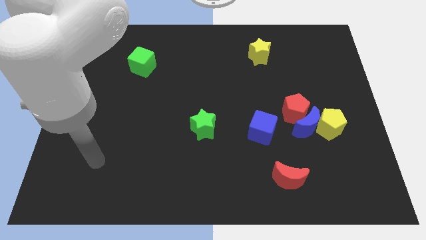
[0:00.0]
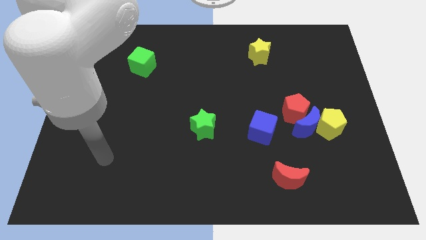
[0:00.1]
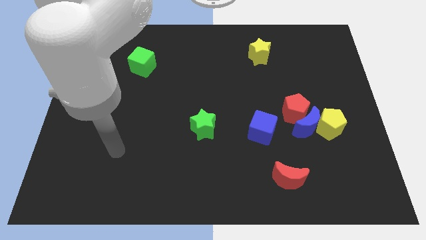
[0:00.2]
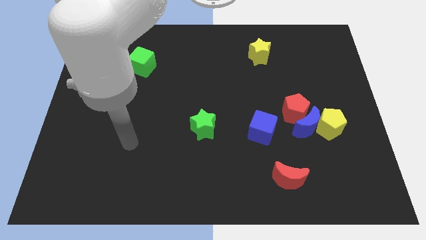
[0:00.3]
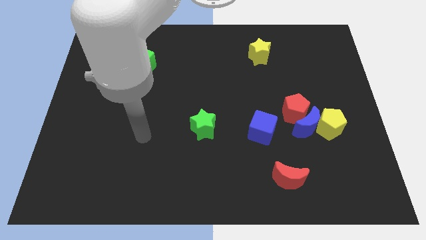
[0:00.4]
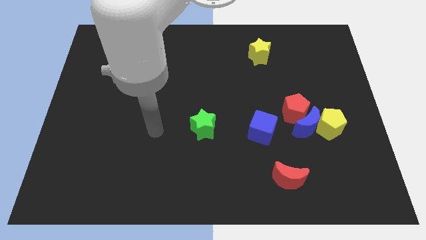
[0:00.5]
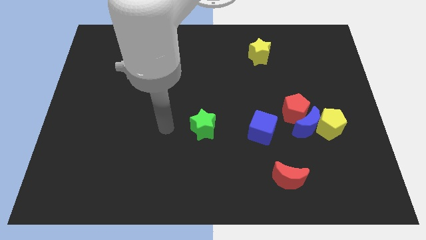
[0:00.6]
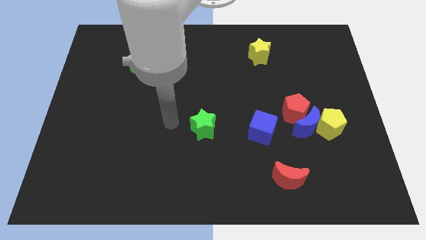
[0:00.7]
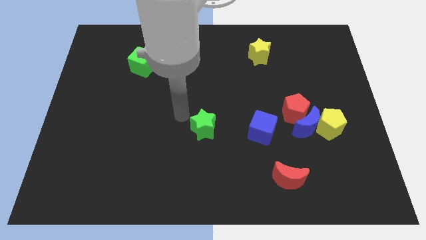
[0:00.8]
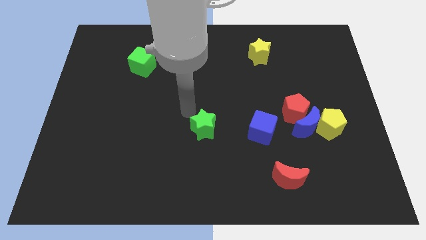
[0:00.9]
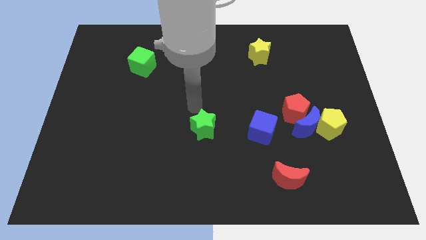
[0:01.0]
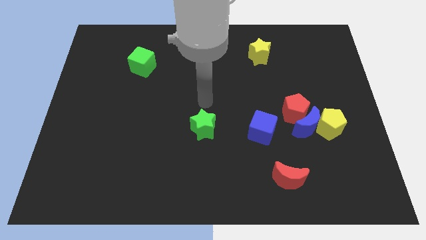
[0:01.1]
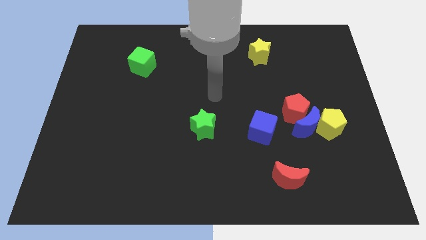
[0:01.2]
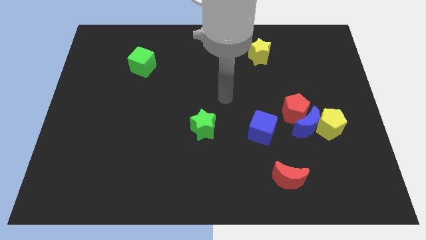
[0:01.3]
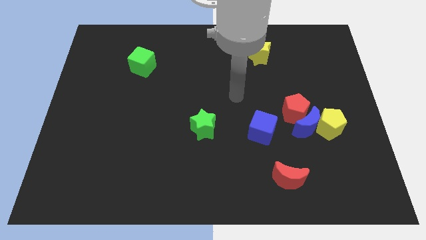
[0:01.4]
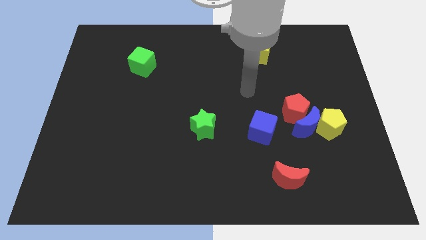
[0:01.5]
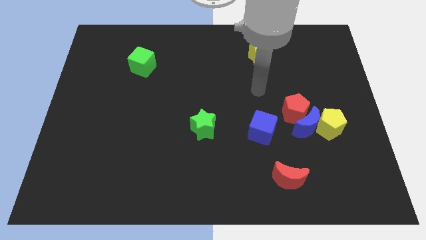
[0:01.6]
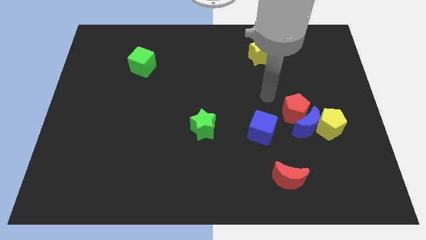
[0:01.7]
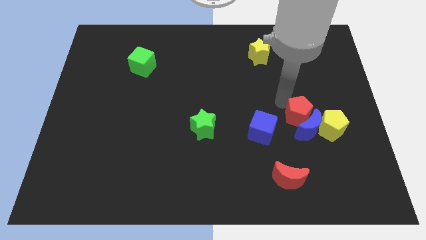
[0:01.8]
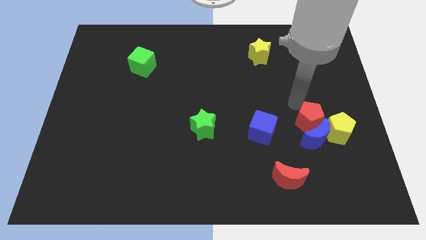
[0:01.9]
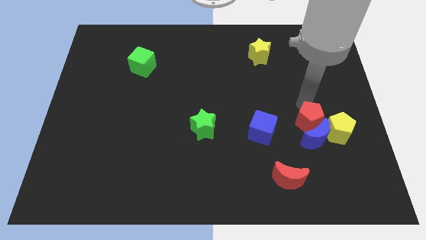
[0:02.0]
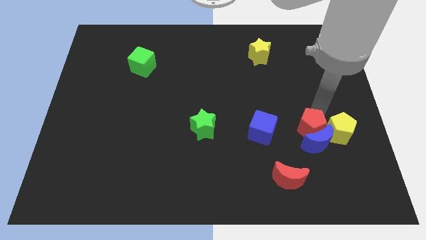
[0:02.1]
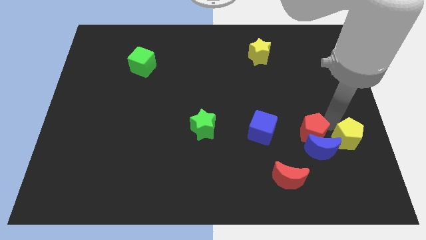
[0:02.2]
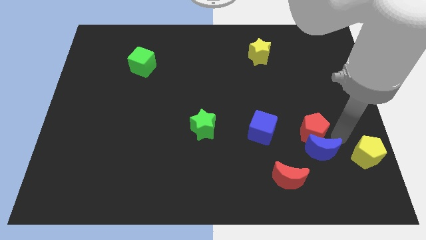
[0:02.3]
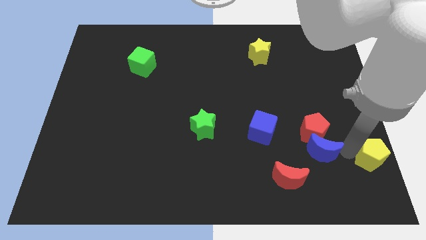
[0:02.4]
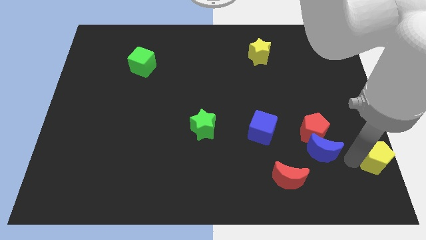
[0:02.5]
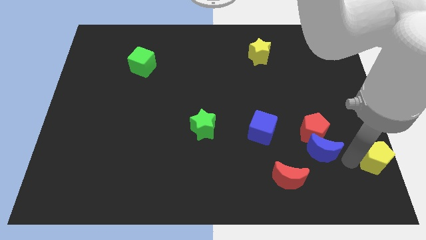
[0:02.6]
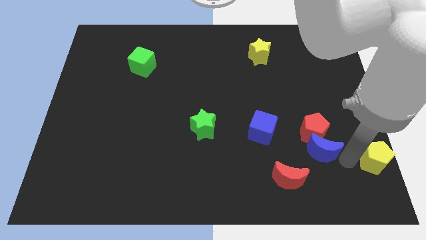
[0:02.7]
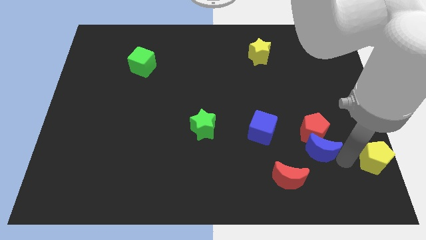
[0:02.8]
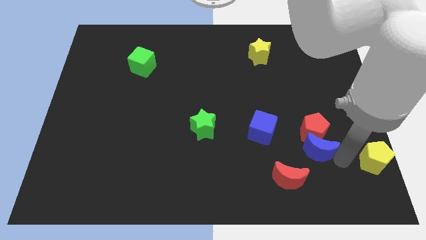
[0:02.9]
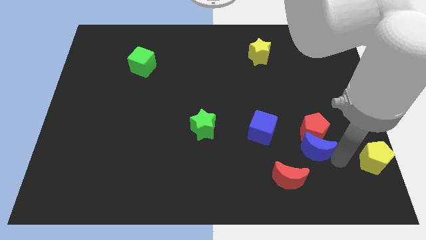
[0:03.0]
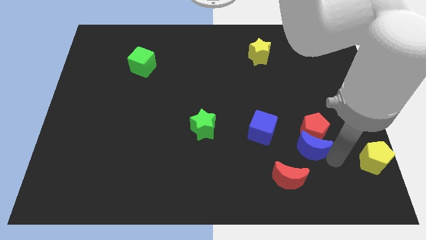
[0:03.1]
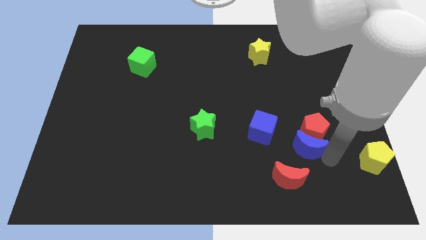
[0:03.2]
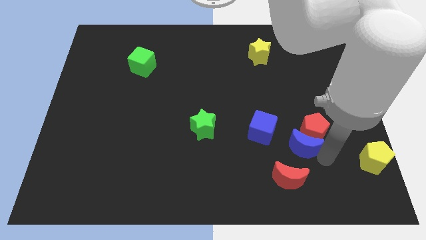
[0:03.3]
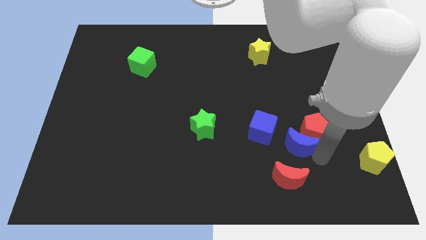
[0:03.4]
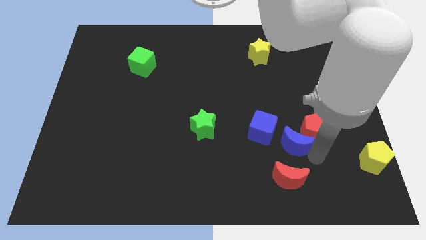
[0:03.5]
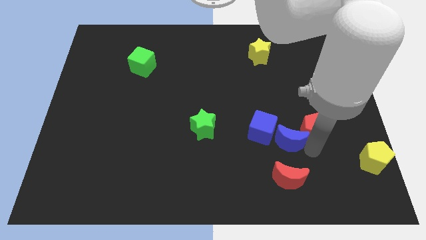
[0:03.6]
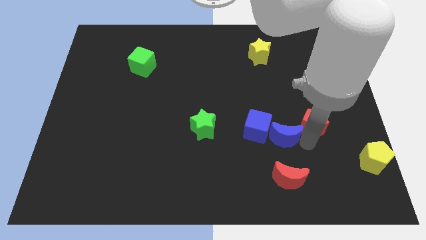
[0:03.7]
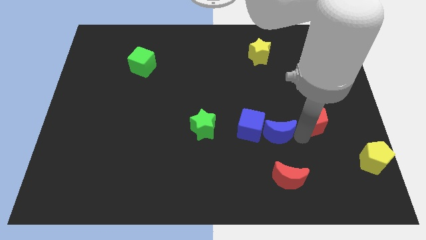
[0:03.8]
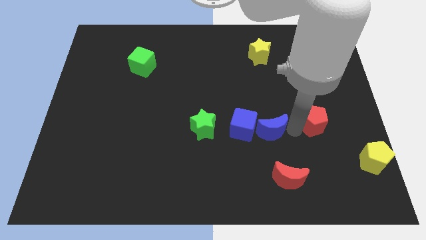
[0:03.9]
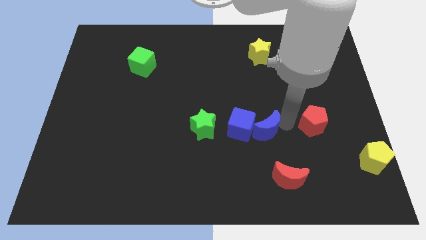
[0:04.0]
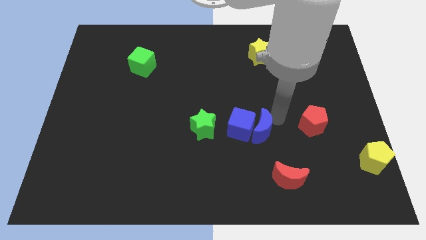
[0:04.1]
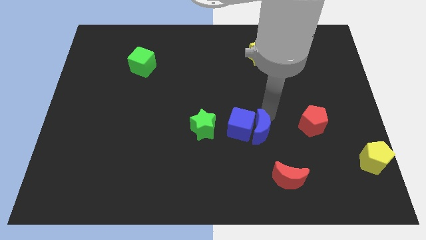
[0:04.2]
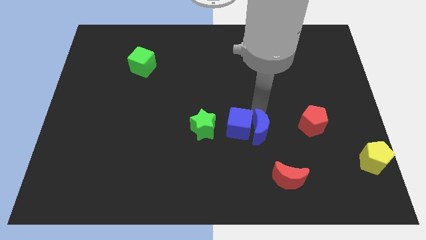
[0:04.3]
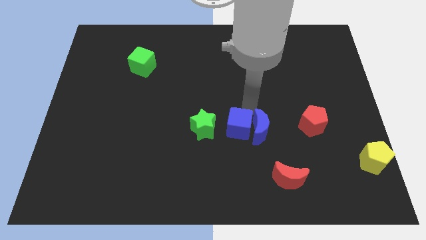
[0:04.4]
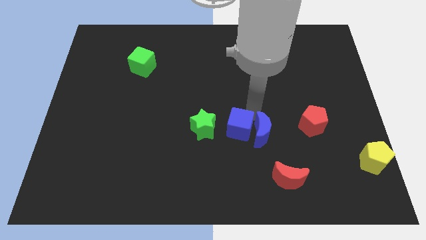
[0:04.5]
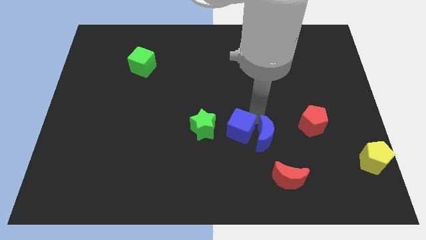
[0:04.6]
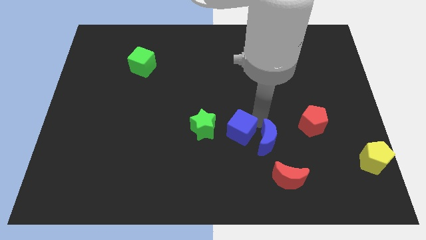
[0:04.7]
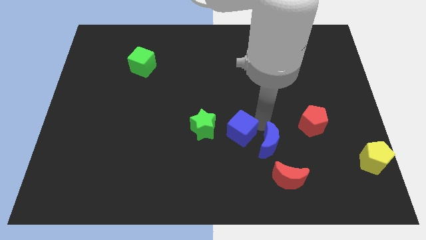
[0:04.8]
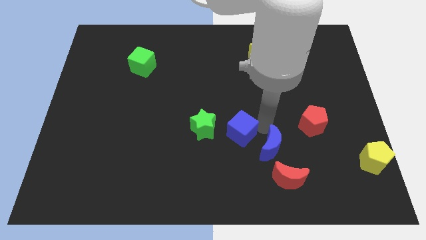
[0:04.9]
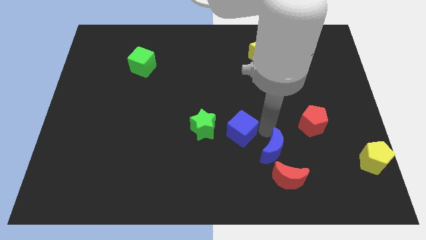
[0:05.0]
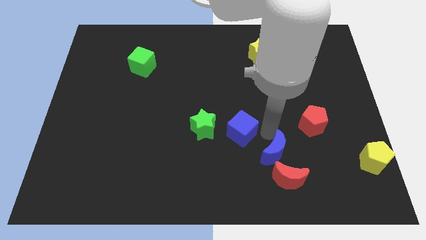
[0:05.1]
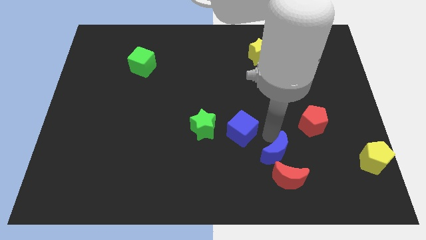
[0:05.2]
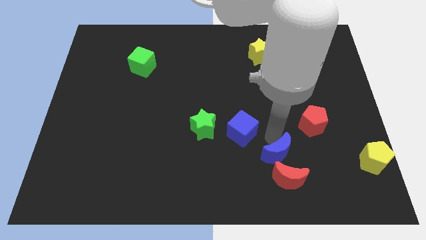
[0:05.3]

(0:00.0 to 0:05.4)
put the blue moon to the red moon

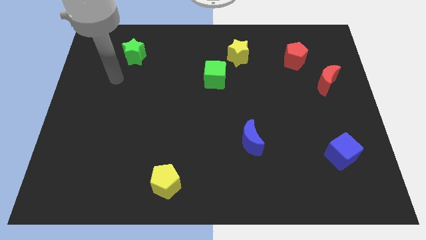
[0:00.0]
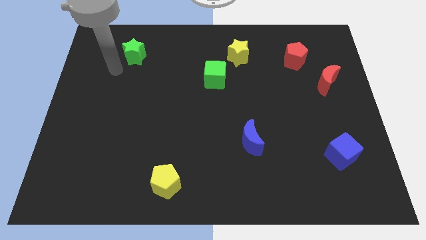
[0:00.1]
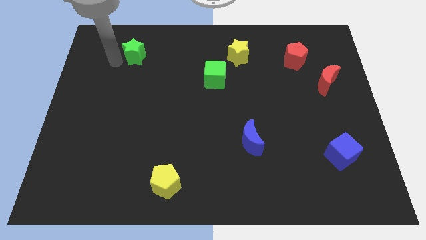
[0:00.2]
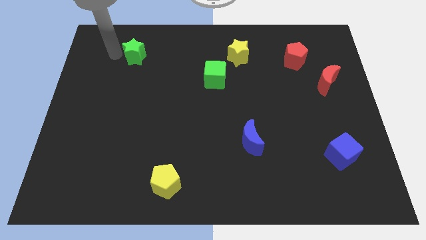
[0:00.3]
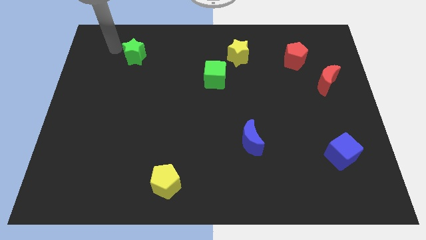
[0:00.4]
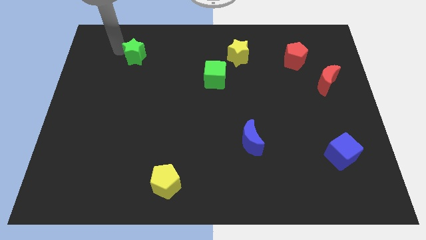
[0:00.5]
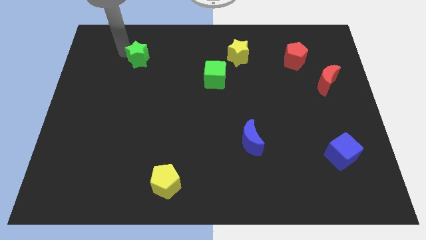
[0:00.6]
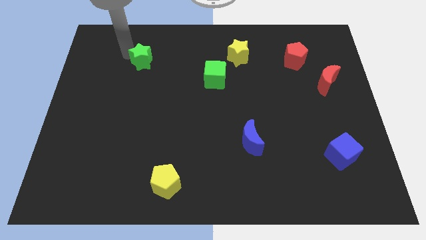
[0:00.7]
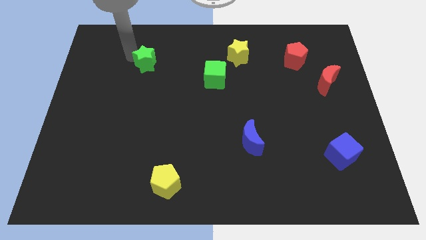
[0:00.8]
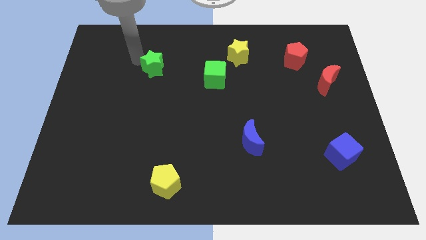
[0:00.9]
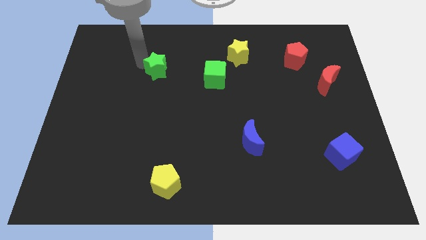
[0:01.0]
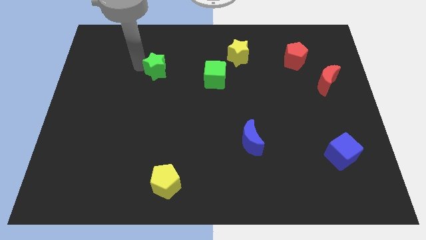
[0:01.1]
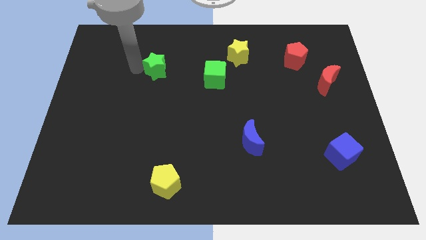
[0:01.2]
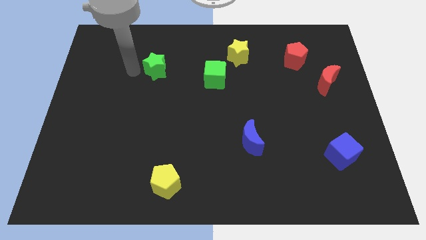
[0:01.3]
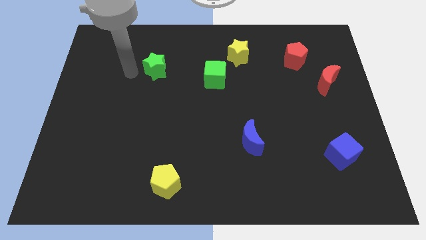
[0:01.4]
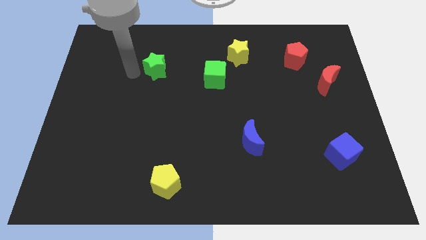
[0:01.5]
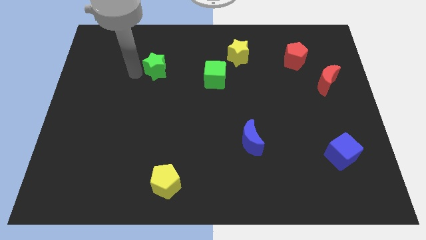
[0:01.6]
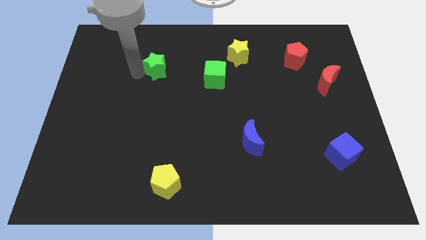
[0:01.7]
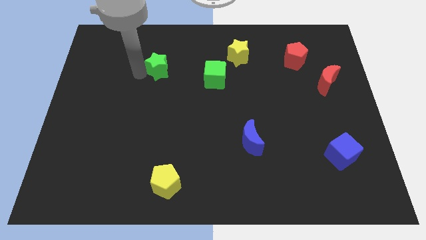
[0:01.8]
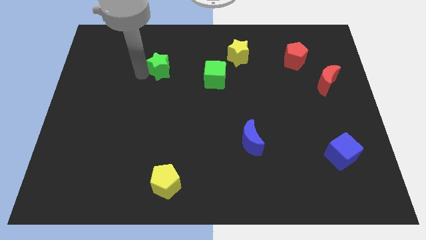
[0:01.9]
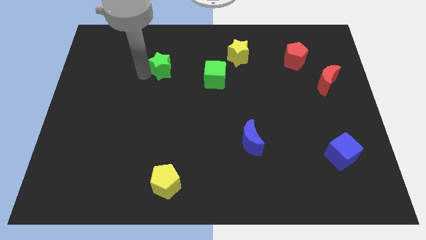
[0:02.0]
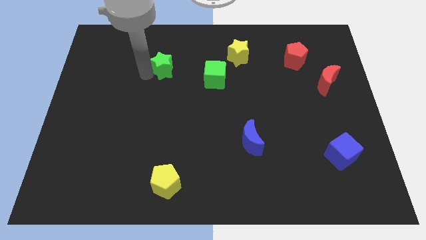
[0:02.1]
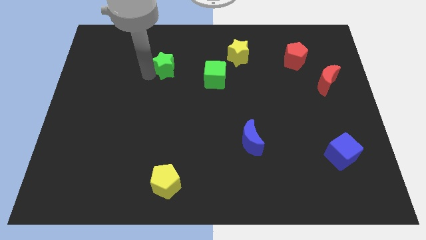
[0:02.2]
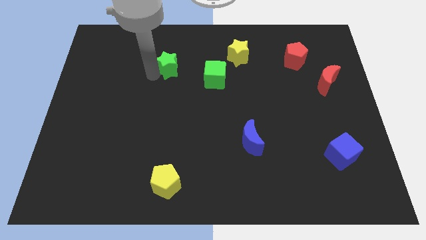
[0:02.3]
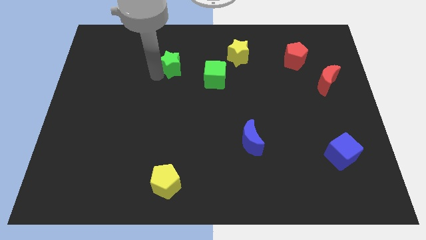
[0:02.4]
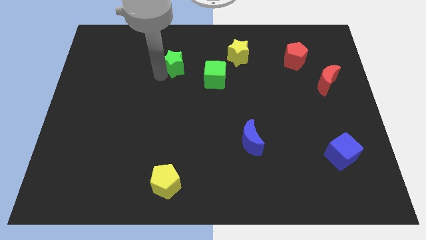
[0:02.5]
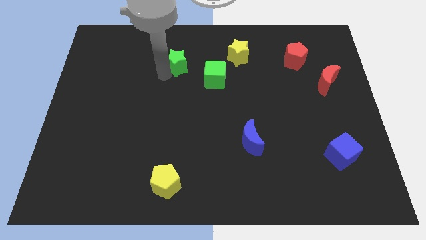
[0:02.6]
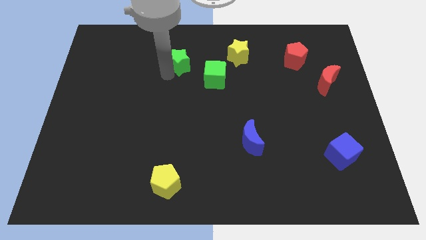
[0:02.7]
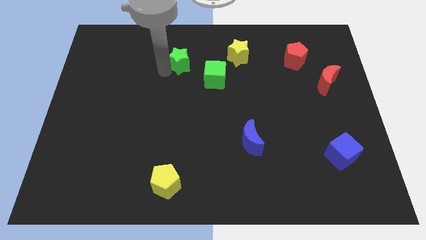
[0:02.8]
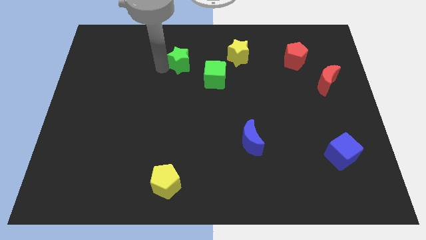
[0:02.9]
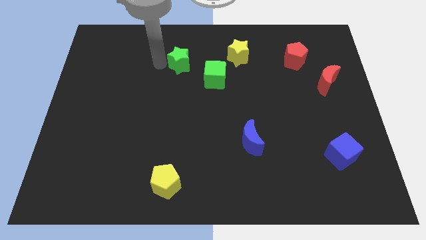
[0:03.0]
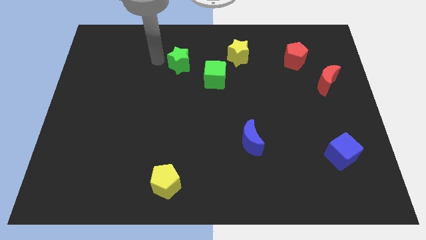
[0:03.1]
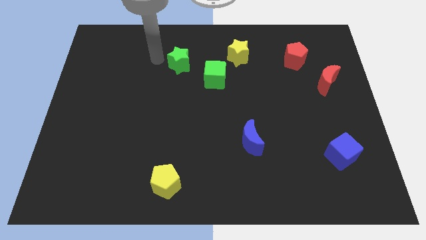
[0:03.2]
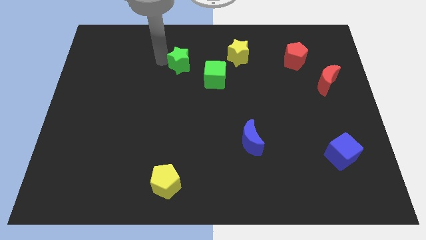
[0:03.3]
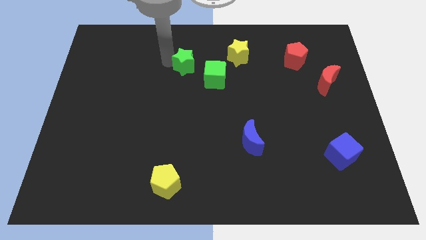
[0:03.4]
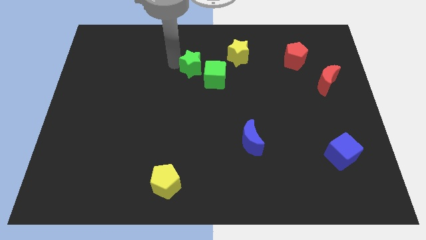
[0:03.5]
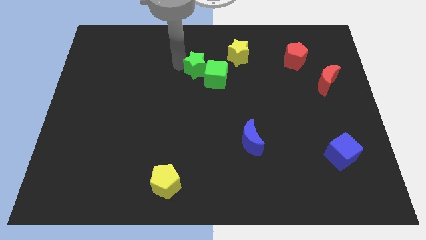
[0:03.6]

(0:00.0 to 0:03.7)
put the green star to the green cube
